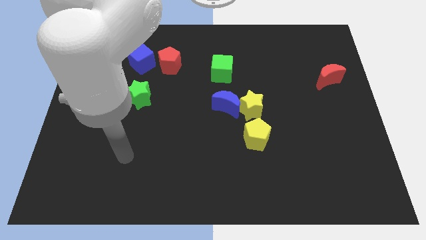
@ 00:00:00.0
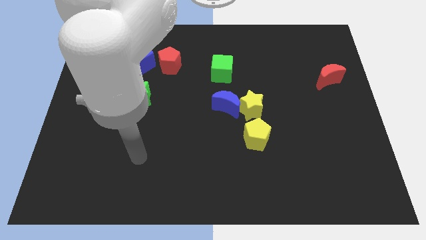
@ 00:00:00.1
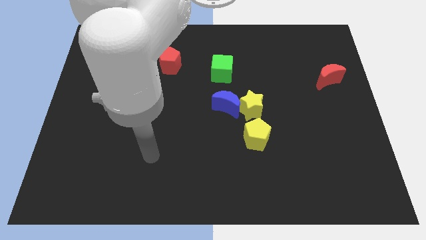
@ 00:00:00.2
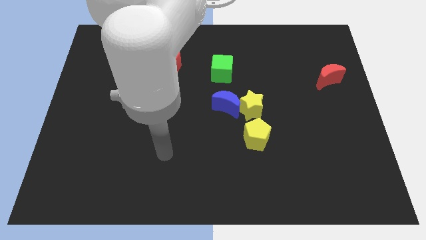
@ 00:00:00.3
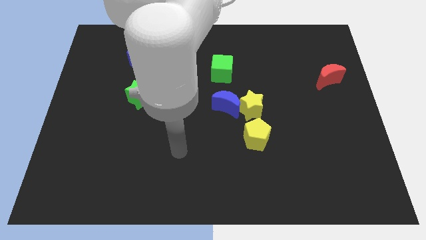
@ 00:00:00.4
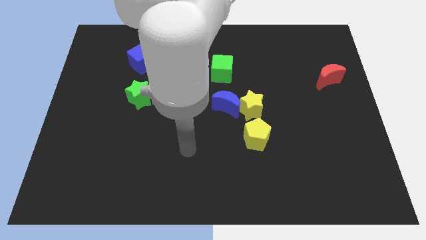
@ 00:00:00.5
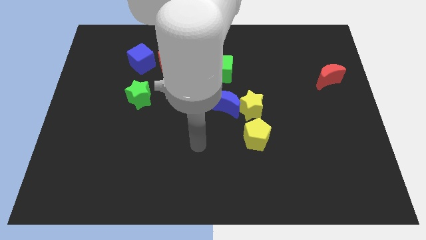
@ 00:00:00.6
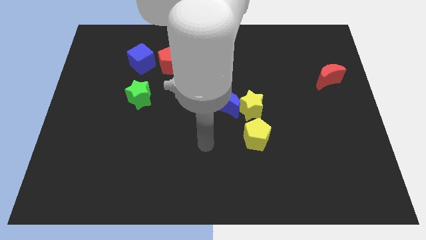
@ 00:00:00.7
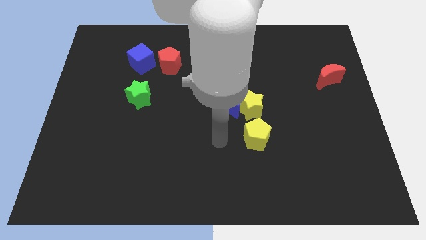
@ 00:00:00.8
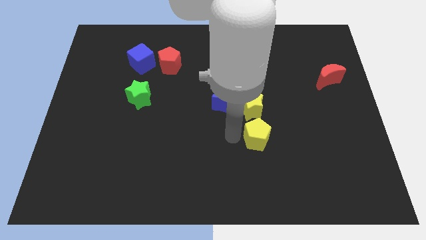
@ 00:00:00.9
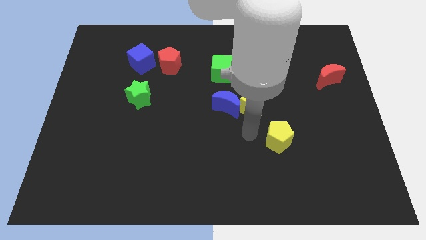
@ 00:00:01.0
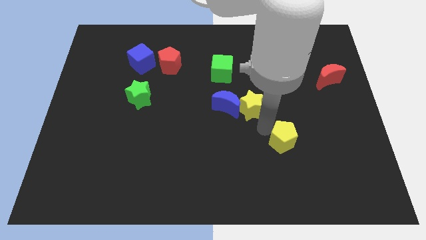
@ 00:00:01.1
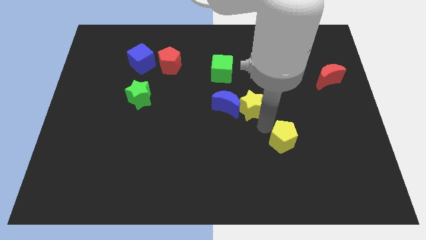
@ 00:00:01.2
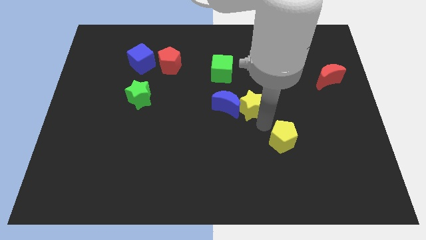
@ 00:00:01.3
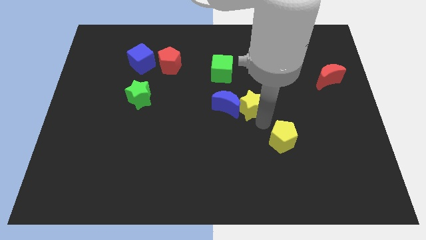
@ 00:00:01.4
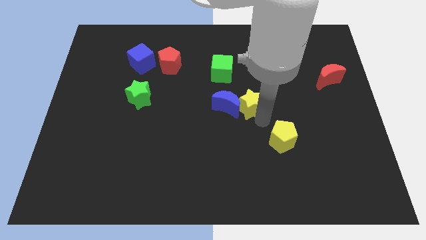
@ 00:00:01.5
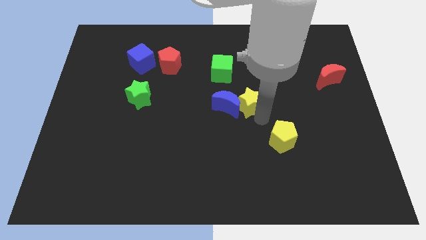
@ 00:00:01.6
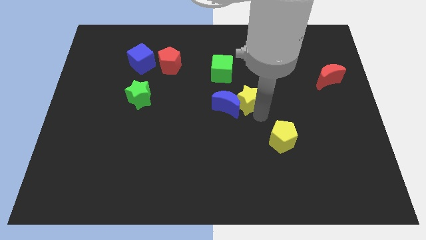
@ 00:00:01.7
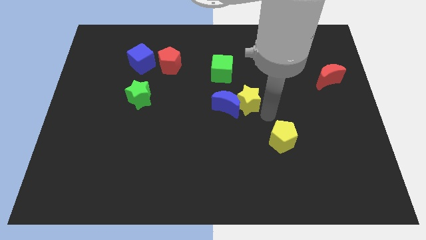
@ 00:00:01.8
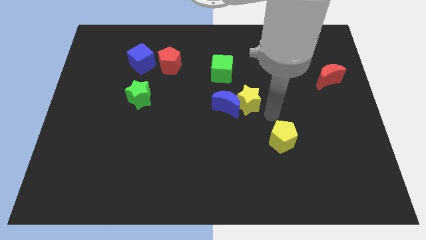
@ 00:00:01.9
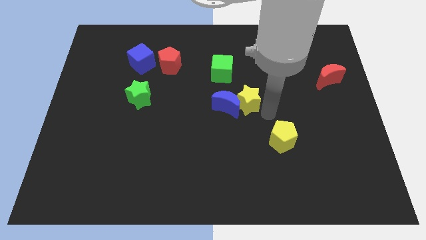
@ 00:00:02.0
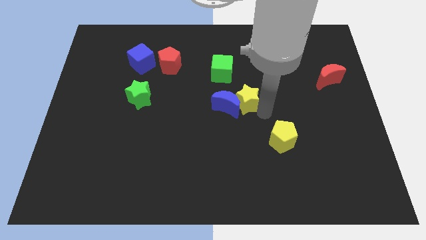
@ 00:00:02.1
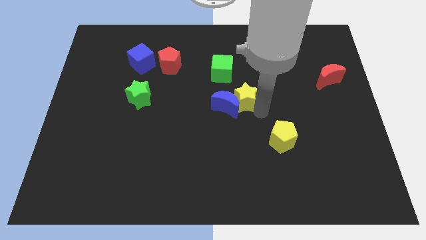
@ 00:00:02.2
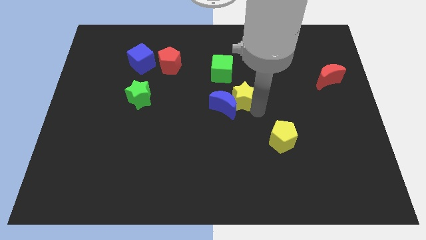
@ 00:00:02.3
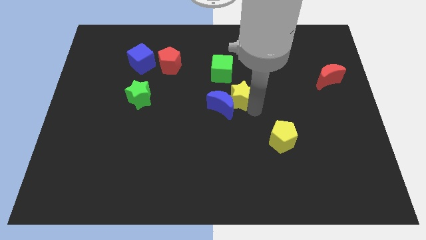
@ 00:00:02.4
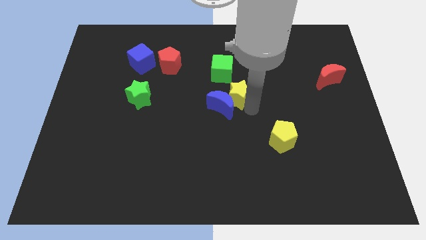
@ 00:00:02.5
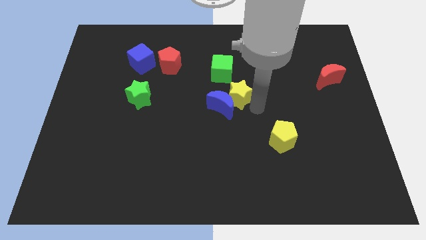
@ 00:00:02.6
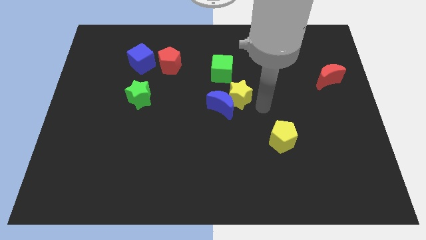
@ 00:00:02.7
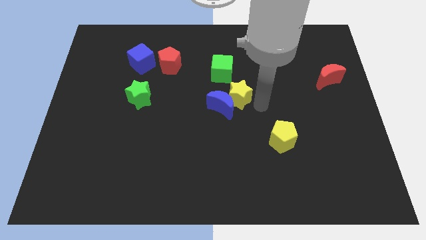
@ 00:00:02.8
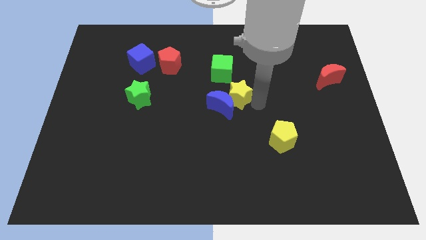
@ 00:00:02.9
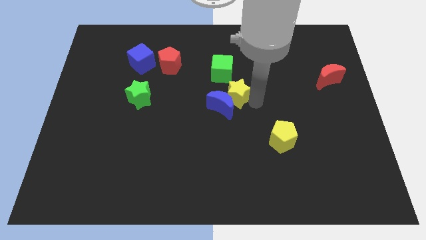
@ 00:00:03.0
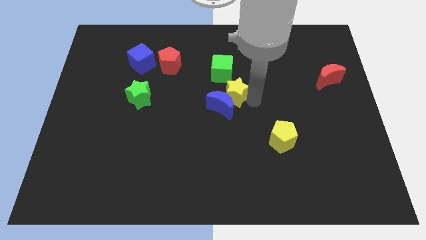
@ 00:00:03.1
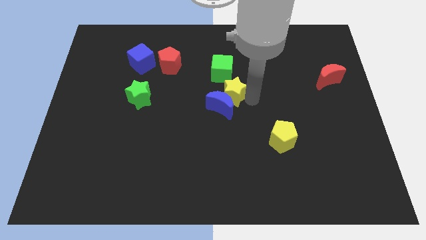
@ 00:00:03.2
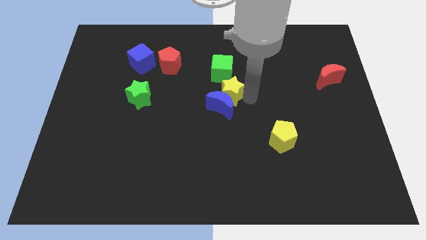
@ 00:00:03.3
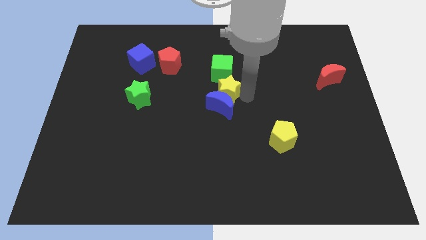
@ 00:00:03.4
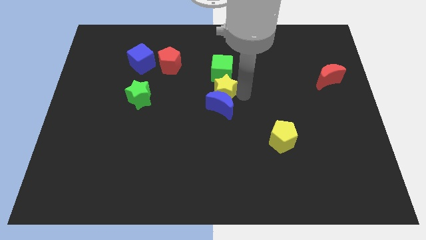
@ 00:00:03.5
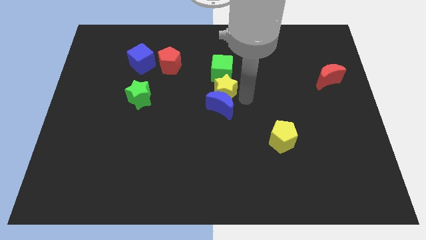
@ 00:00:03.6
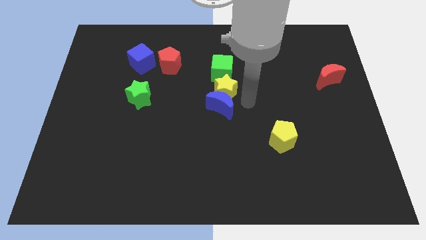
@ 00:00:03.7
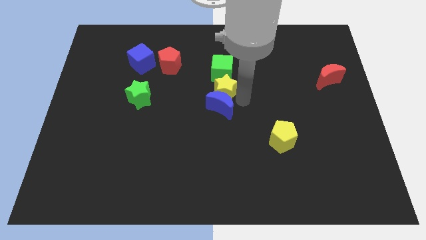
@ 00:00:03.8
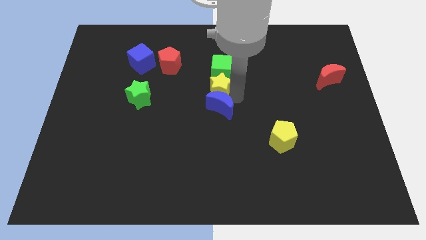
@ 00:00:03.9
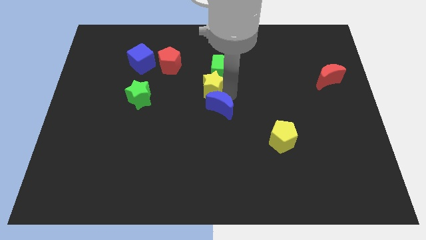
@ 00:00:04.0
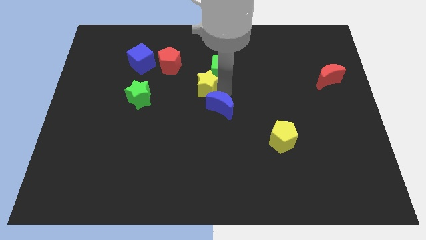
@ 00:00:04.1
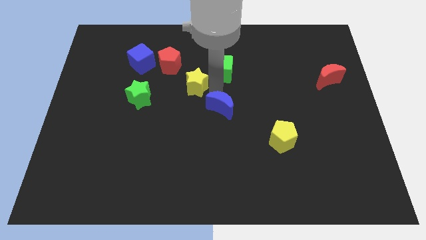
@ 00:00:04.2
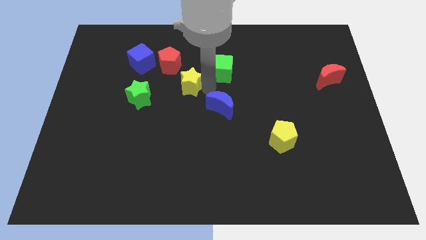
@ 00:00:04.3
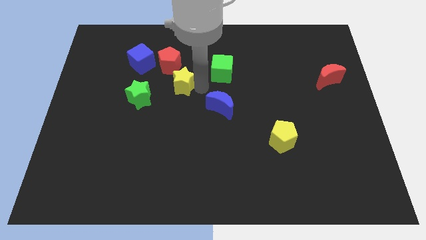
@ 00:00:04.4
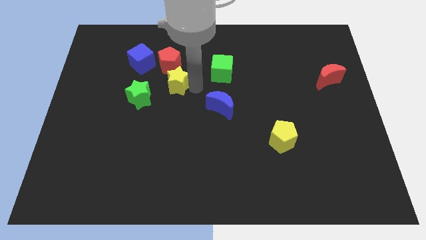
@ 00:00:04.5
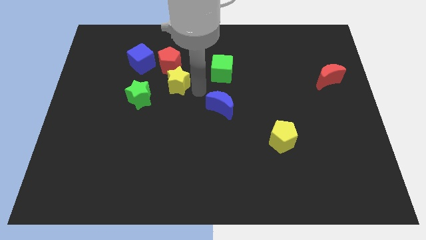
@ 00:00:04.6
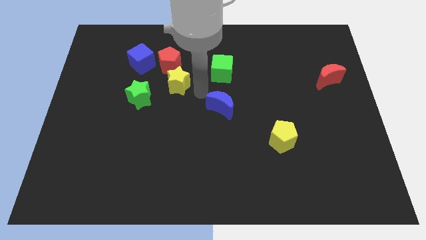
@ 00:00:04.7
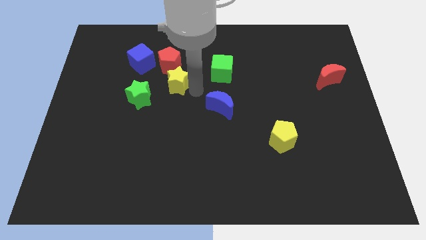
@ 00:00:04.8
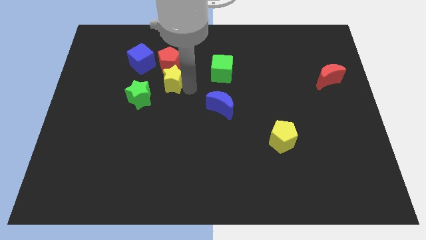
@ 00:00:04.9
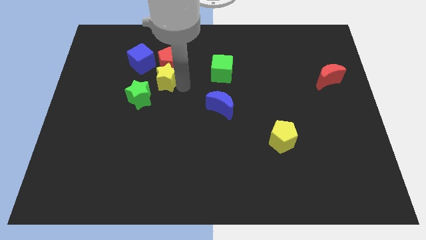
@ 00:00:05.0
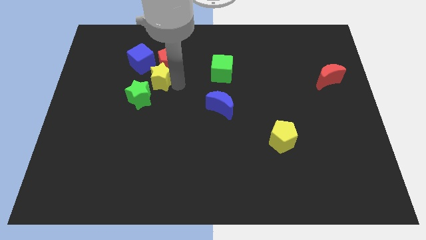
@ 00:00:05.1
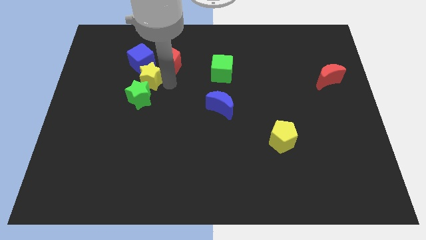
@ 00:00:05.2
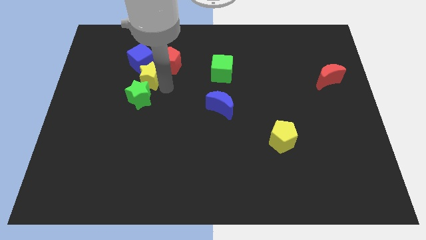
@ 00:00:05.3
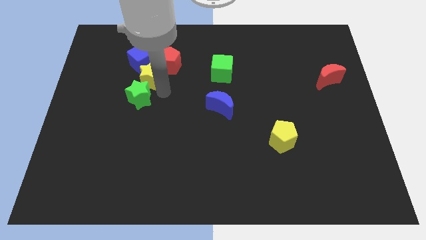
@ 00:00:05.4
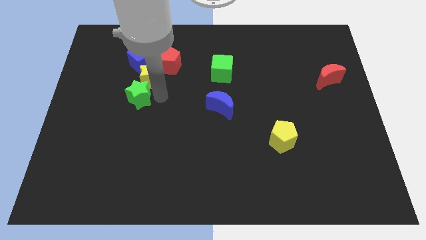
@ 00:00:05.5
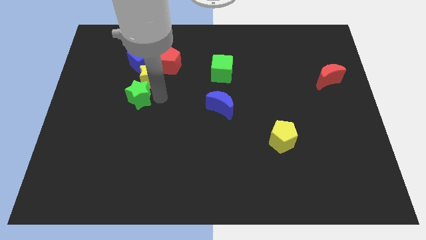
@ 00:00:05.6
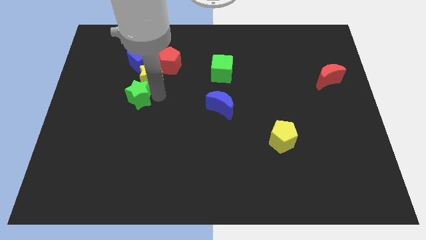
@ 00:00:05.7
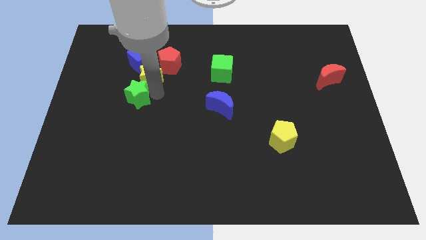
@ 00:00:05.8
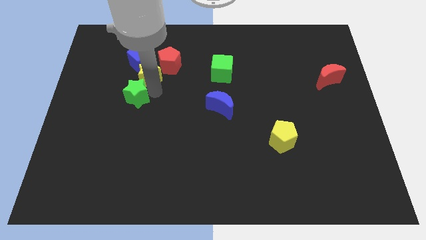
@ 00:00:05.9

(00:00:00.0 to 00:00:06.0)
push the yellow star to the blue cube

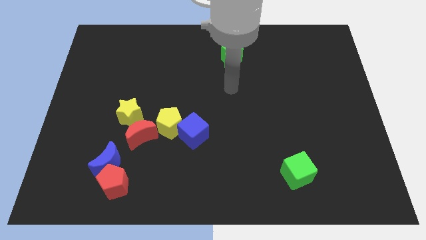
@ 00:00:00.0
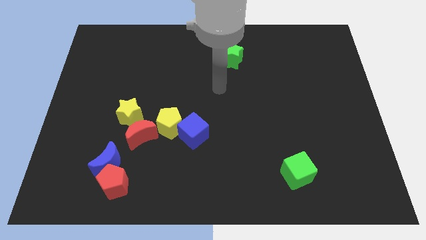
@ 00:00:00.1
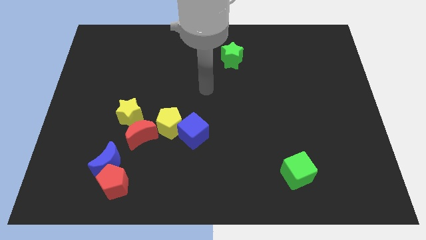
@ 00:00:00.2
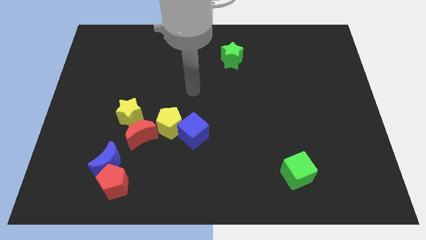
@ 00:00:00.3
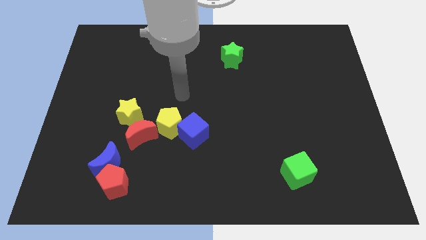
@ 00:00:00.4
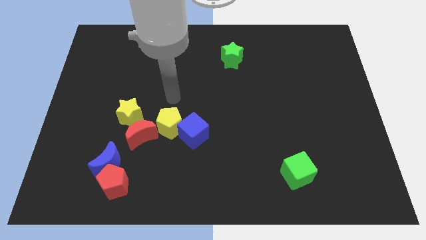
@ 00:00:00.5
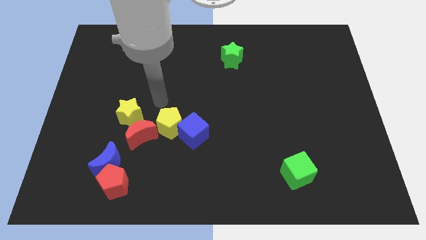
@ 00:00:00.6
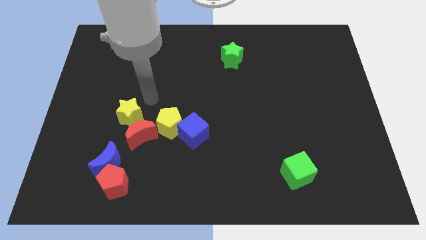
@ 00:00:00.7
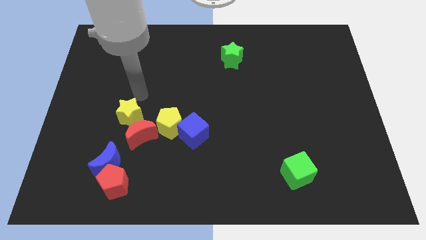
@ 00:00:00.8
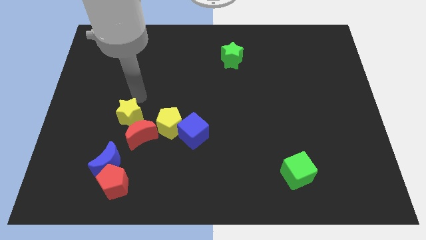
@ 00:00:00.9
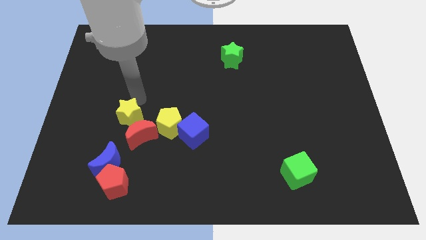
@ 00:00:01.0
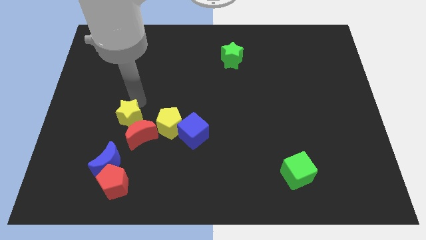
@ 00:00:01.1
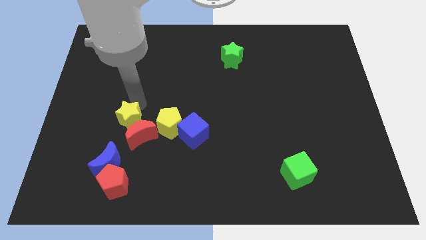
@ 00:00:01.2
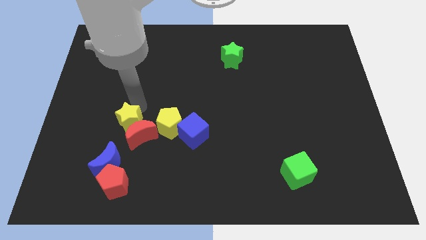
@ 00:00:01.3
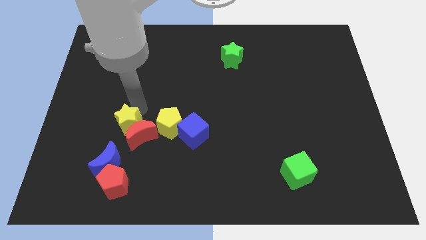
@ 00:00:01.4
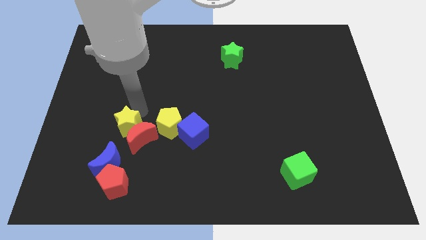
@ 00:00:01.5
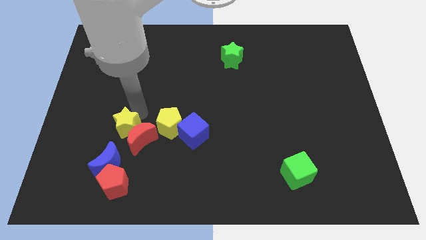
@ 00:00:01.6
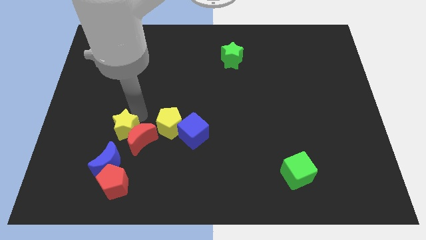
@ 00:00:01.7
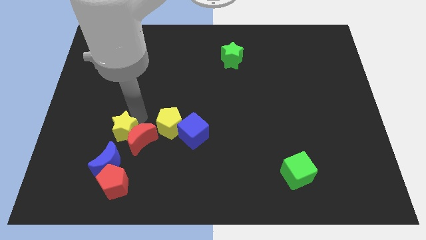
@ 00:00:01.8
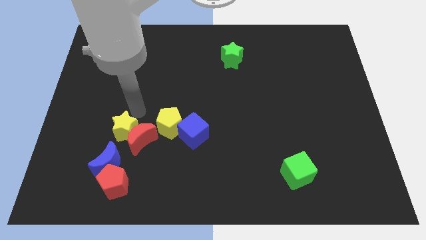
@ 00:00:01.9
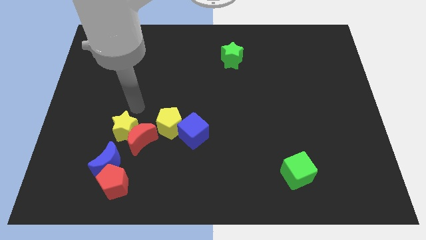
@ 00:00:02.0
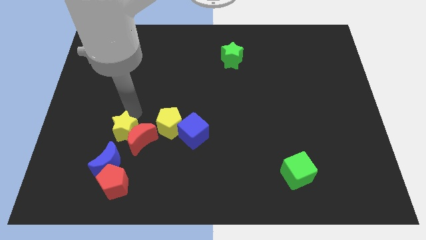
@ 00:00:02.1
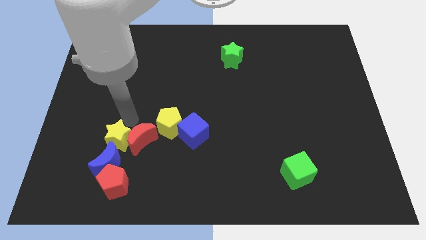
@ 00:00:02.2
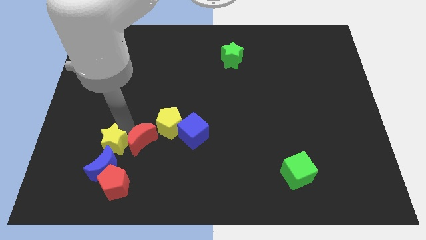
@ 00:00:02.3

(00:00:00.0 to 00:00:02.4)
move the yellow star close to the blue moon
